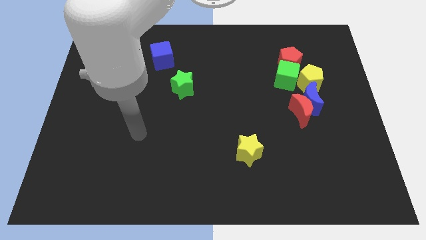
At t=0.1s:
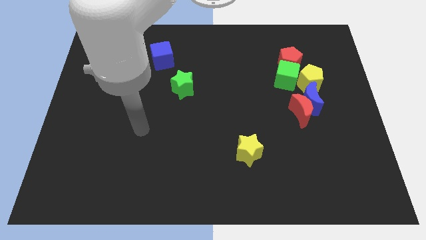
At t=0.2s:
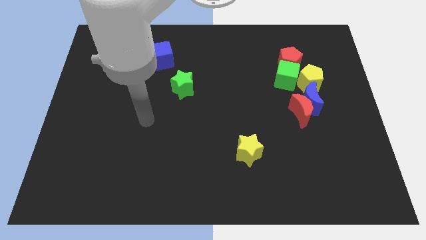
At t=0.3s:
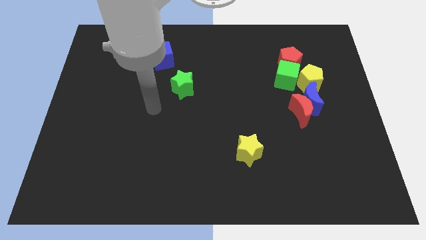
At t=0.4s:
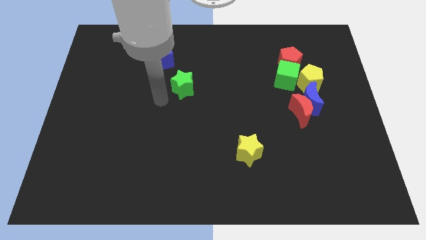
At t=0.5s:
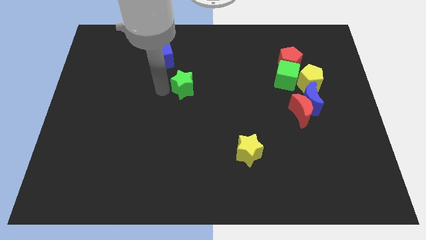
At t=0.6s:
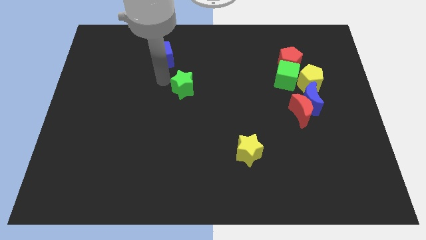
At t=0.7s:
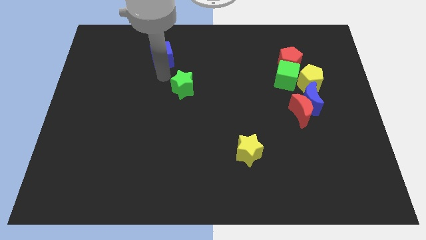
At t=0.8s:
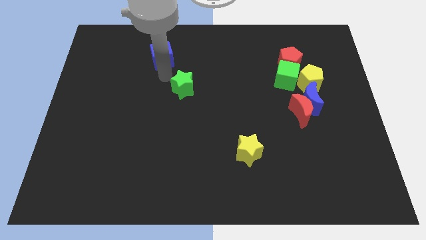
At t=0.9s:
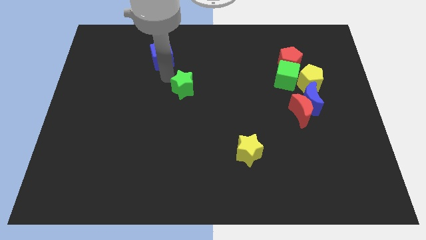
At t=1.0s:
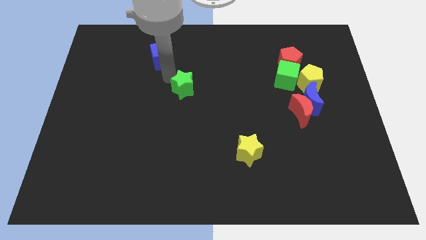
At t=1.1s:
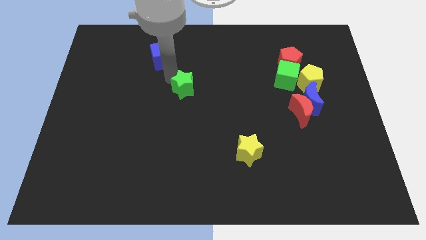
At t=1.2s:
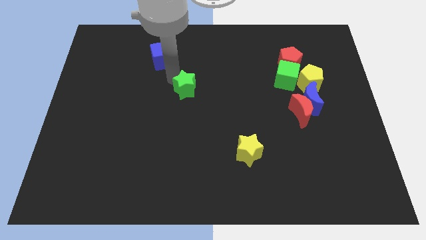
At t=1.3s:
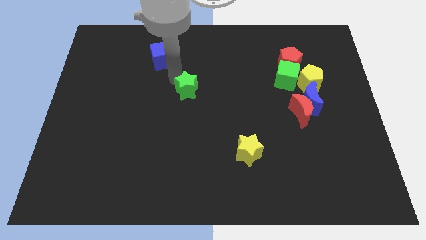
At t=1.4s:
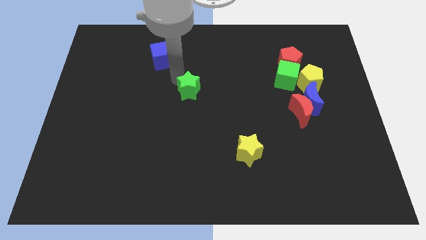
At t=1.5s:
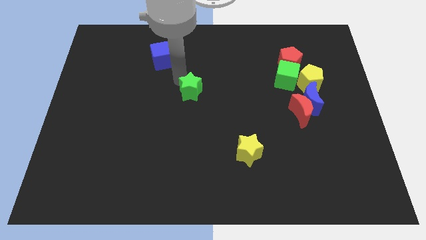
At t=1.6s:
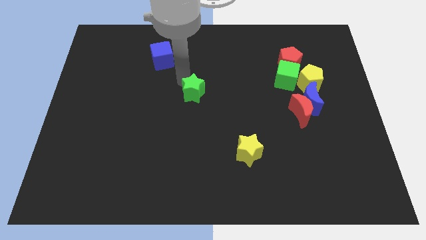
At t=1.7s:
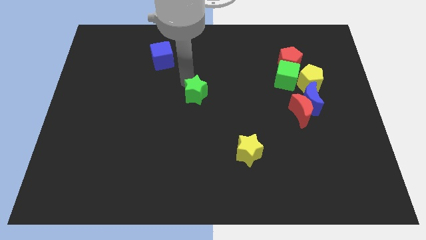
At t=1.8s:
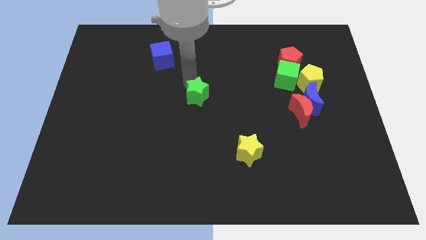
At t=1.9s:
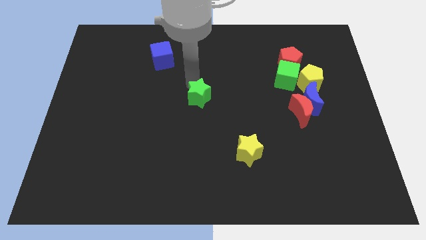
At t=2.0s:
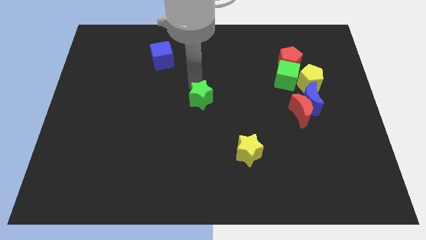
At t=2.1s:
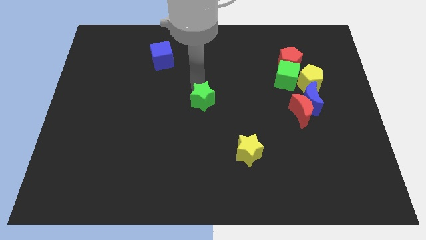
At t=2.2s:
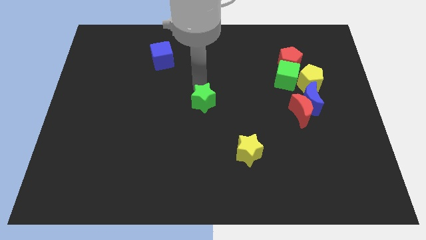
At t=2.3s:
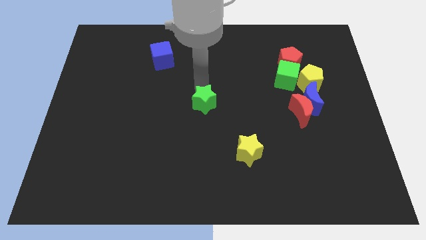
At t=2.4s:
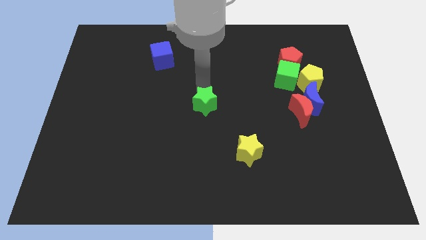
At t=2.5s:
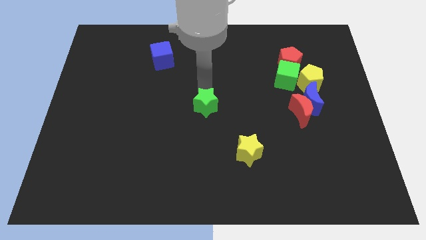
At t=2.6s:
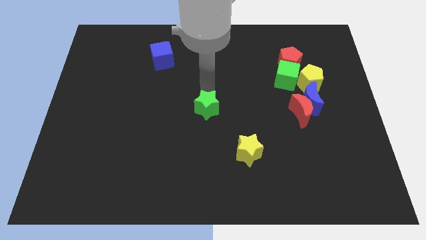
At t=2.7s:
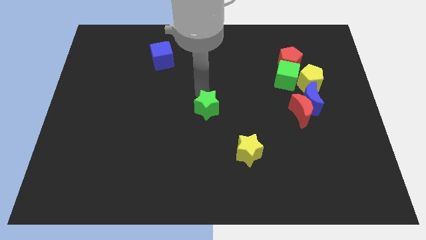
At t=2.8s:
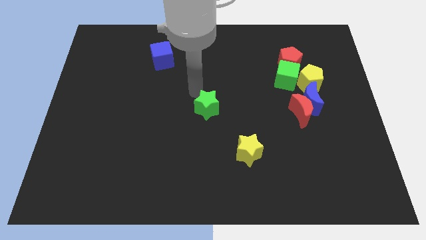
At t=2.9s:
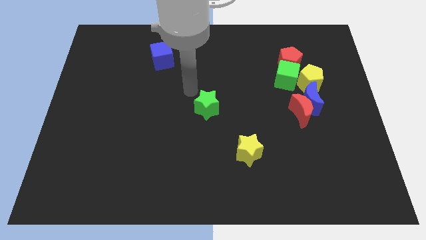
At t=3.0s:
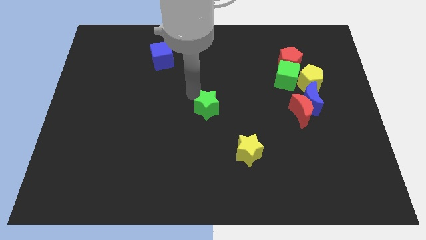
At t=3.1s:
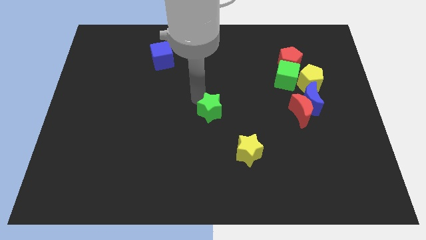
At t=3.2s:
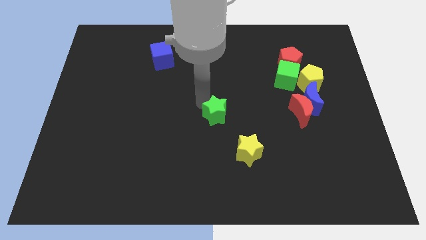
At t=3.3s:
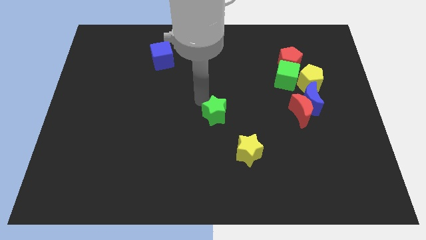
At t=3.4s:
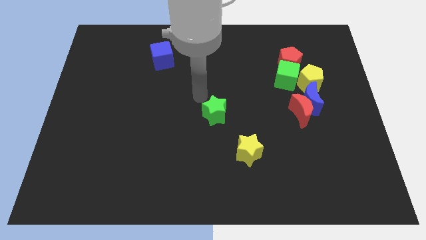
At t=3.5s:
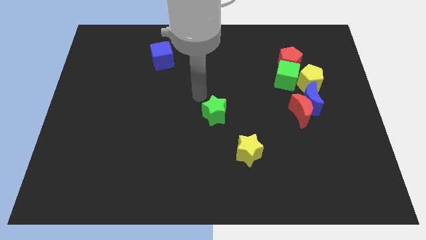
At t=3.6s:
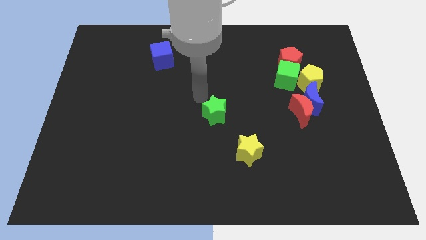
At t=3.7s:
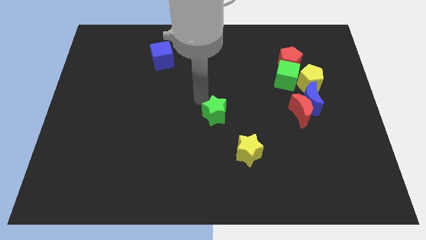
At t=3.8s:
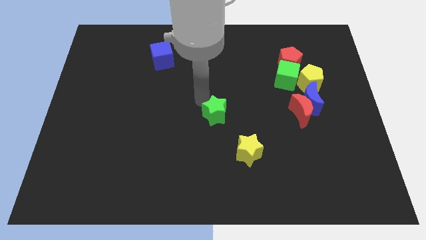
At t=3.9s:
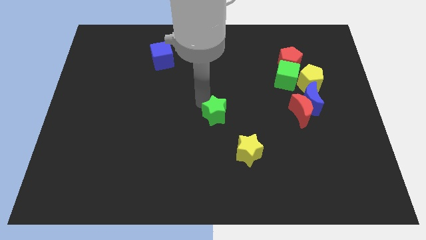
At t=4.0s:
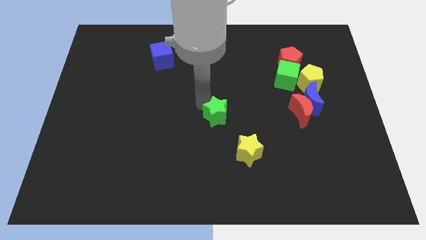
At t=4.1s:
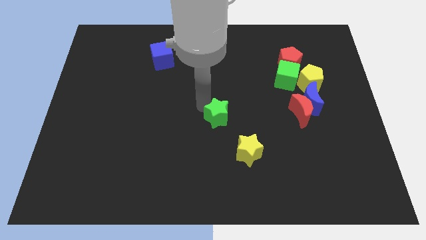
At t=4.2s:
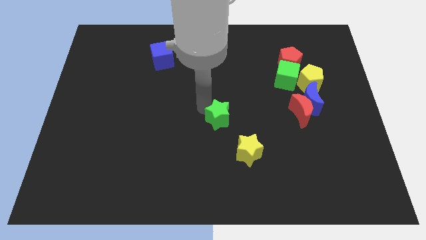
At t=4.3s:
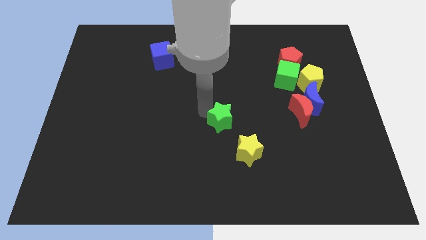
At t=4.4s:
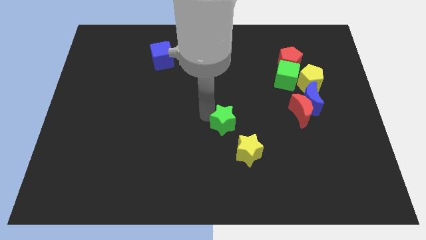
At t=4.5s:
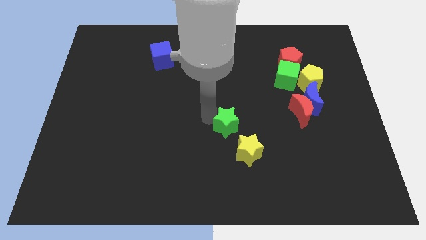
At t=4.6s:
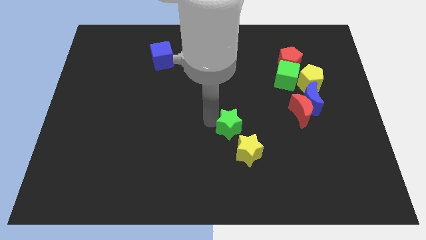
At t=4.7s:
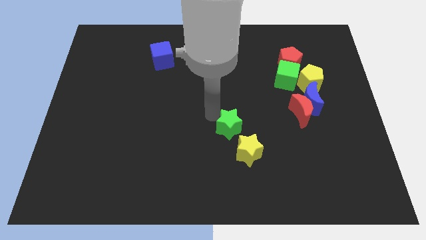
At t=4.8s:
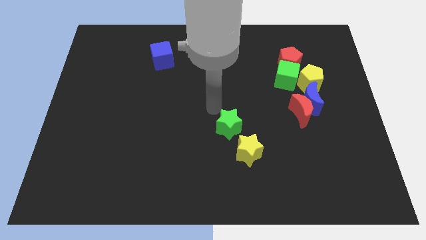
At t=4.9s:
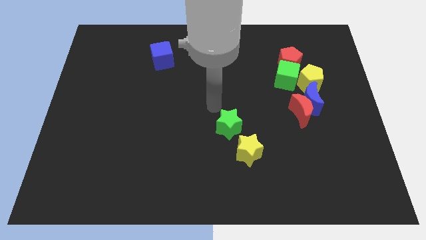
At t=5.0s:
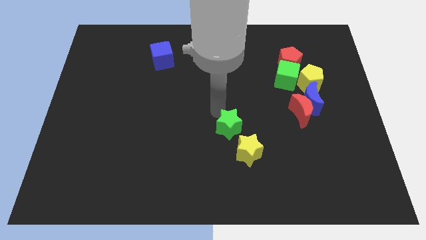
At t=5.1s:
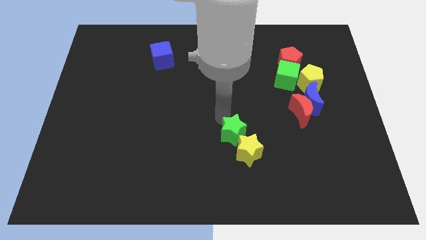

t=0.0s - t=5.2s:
move the green star towards the yellow star

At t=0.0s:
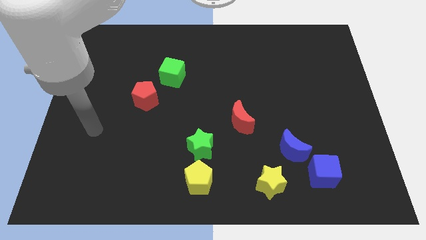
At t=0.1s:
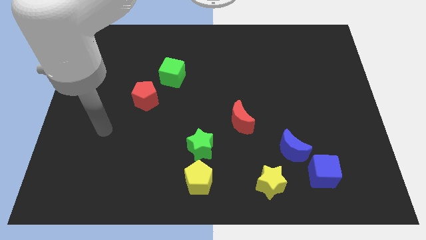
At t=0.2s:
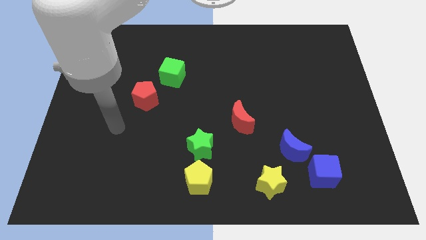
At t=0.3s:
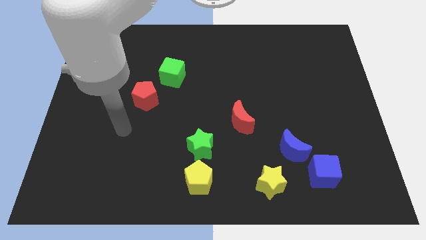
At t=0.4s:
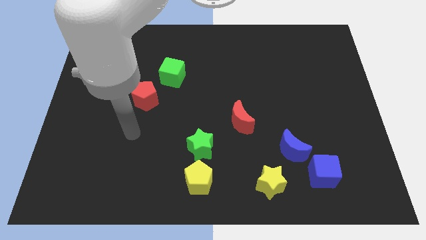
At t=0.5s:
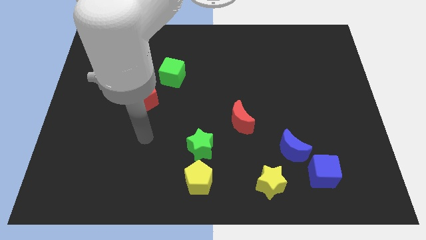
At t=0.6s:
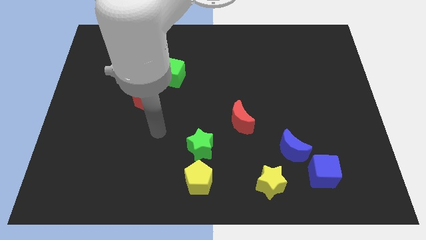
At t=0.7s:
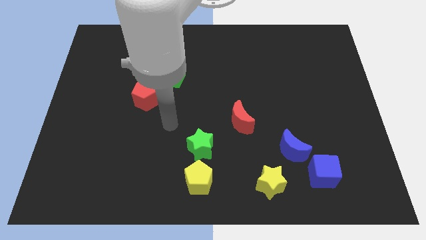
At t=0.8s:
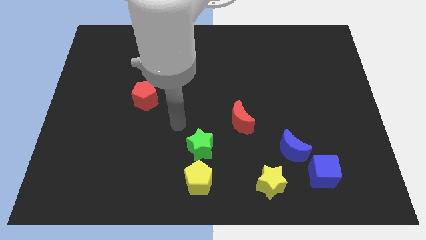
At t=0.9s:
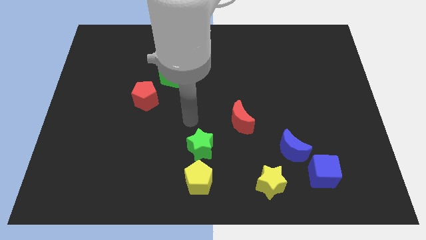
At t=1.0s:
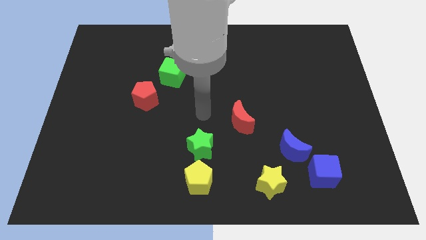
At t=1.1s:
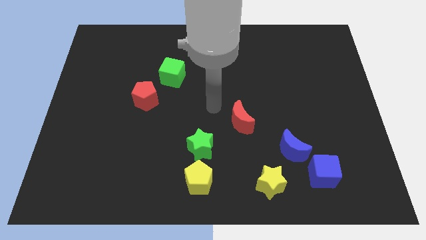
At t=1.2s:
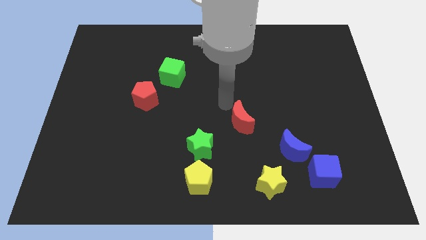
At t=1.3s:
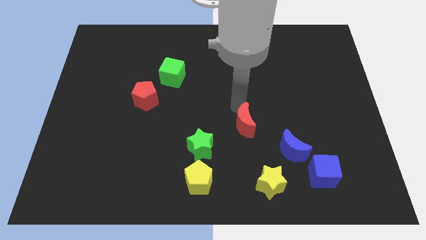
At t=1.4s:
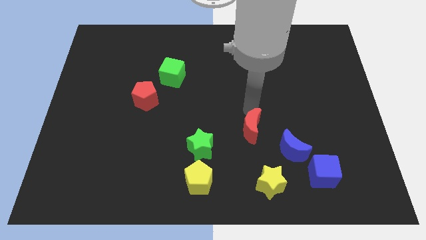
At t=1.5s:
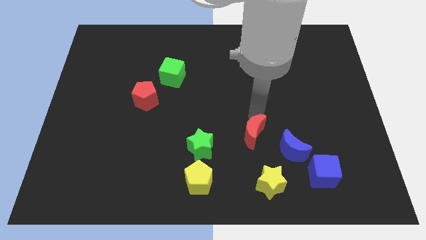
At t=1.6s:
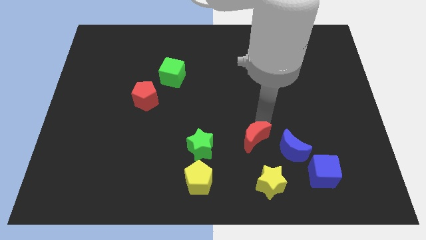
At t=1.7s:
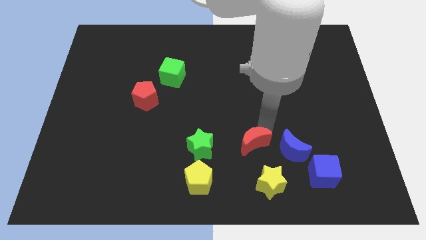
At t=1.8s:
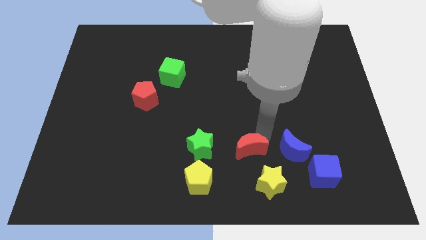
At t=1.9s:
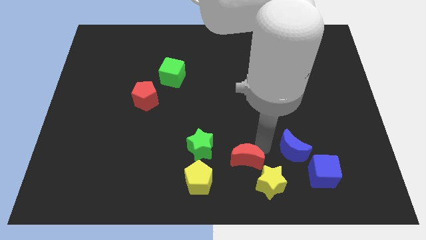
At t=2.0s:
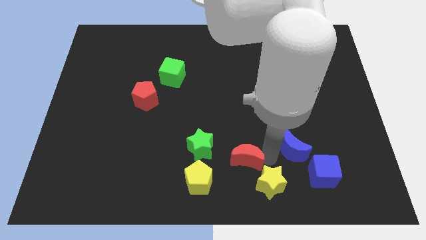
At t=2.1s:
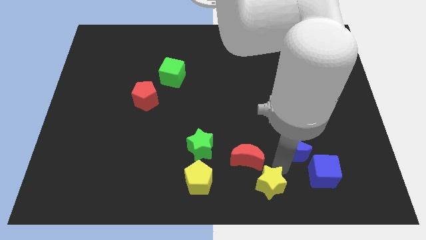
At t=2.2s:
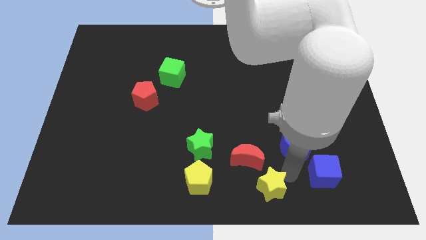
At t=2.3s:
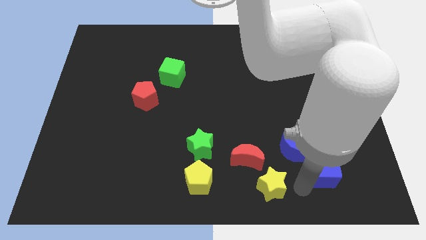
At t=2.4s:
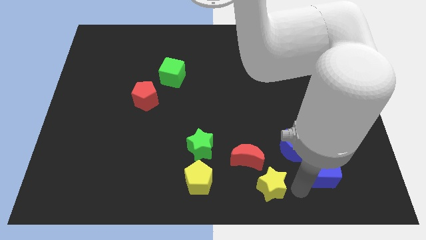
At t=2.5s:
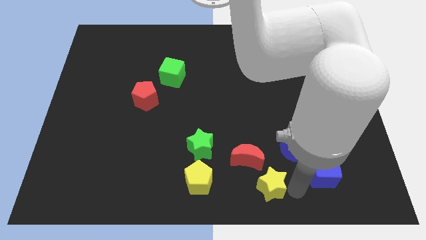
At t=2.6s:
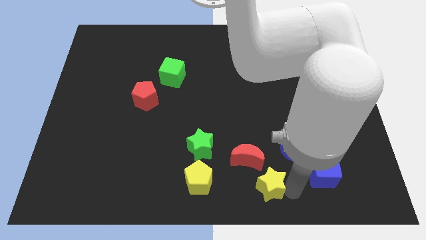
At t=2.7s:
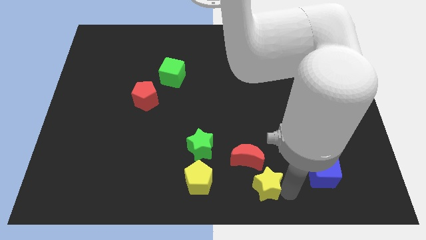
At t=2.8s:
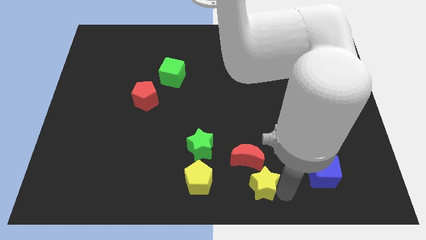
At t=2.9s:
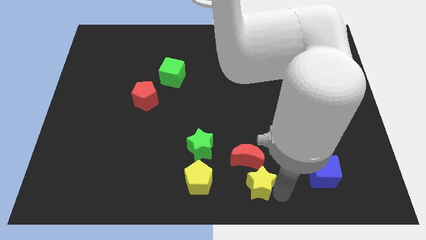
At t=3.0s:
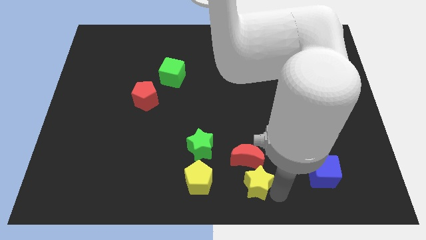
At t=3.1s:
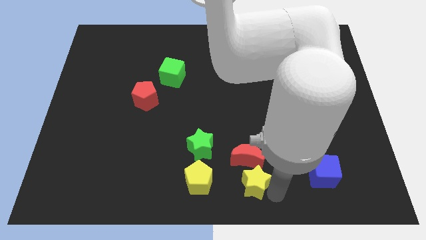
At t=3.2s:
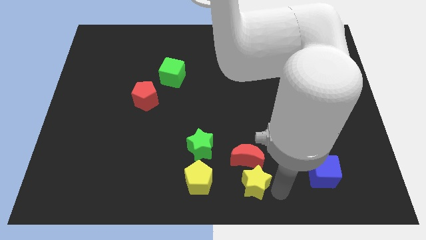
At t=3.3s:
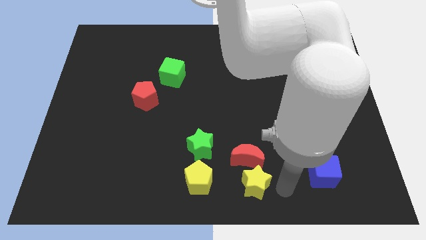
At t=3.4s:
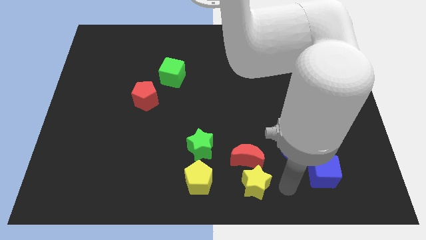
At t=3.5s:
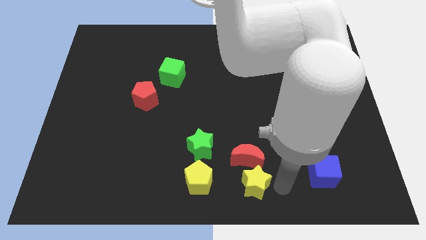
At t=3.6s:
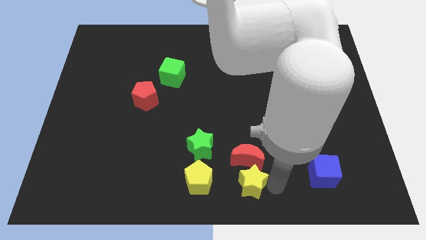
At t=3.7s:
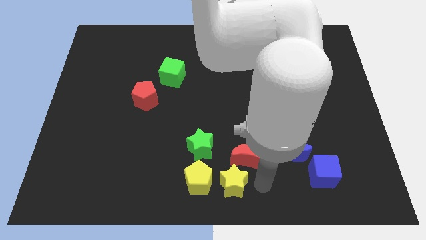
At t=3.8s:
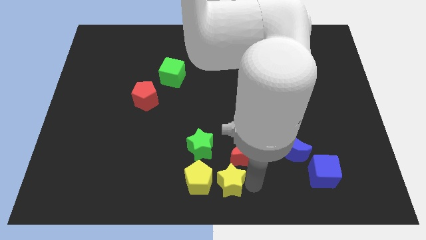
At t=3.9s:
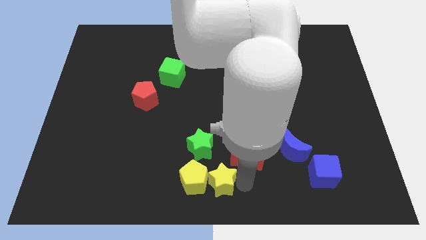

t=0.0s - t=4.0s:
move the yellow star next to the yellow pentagon
